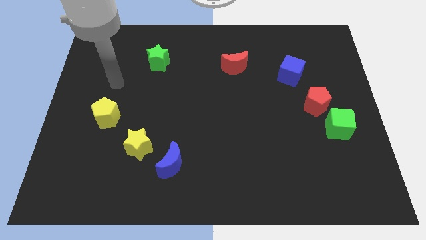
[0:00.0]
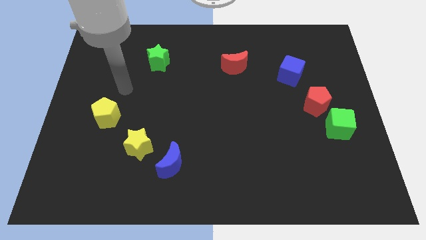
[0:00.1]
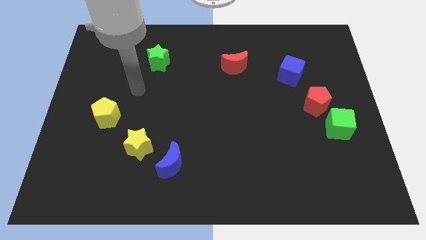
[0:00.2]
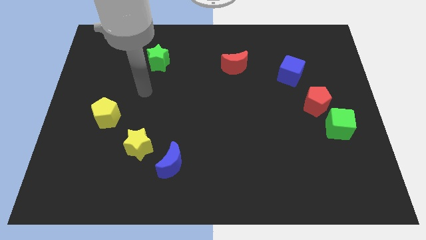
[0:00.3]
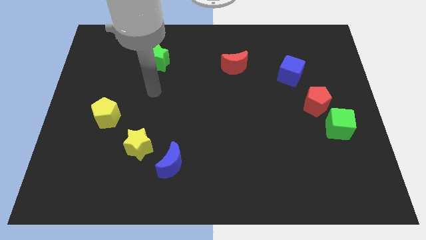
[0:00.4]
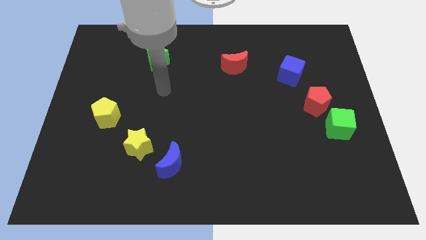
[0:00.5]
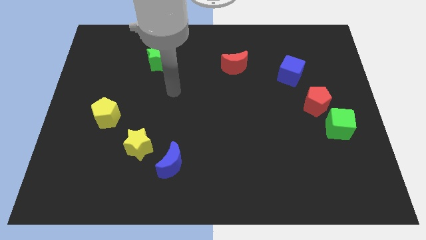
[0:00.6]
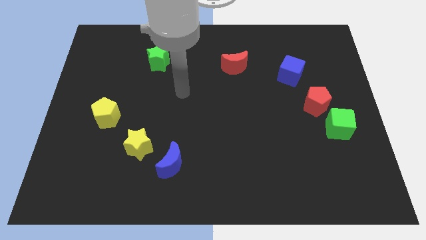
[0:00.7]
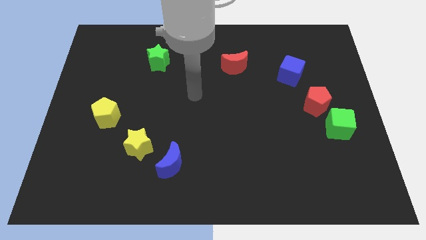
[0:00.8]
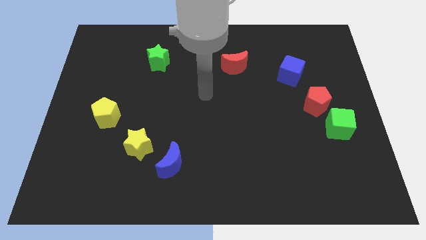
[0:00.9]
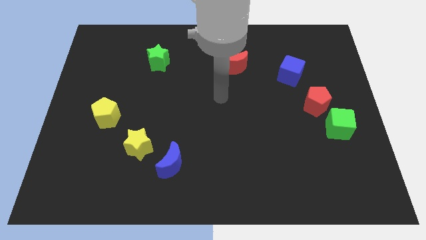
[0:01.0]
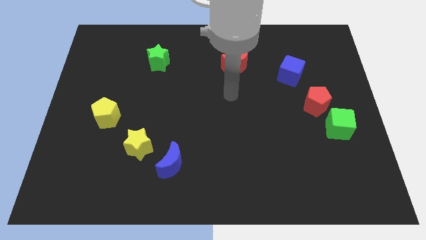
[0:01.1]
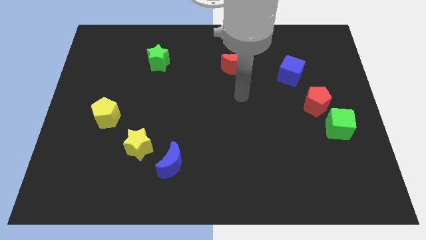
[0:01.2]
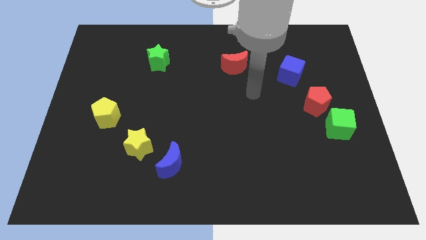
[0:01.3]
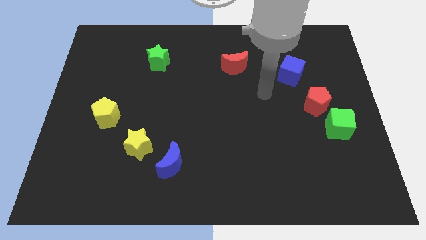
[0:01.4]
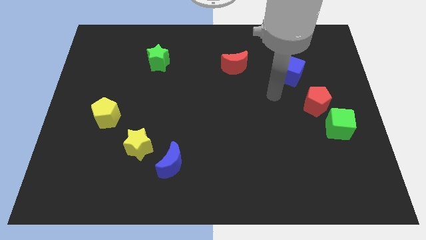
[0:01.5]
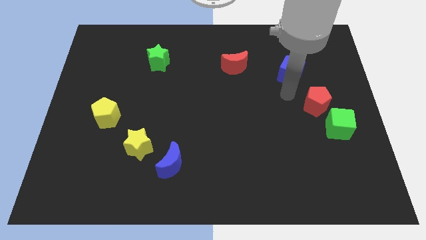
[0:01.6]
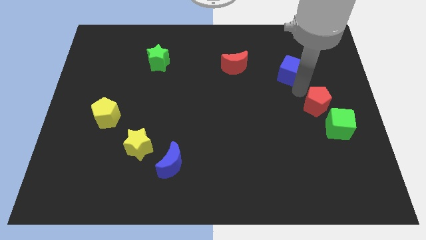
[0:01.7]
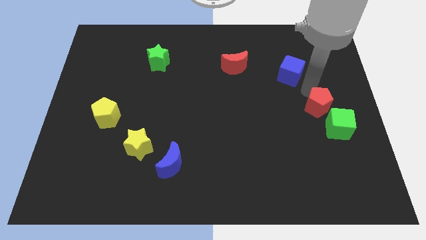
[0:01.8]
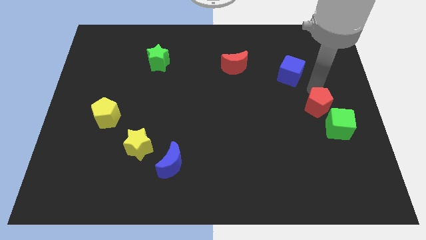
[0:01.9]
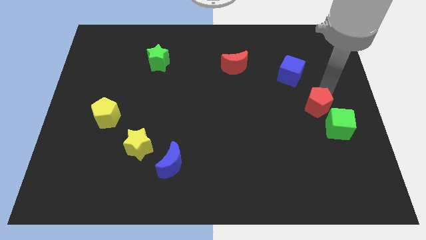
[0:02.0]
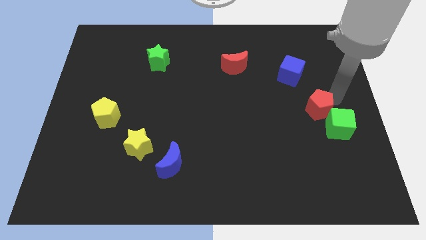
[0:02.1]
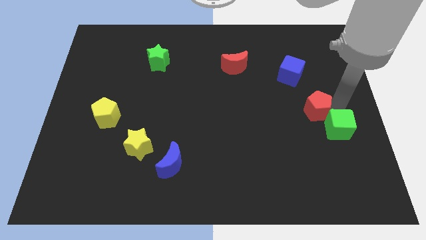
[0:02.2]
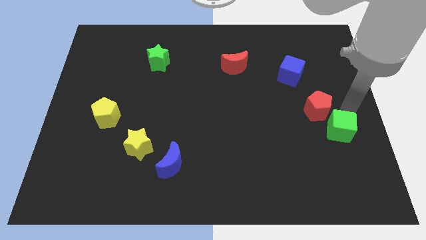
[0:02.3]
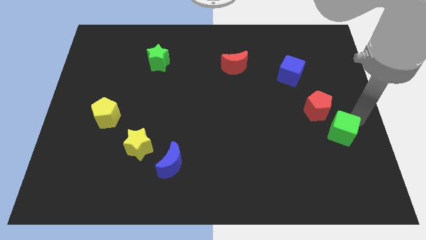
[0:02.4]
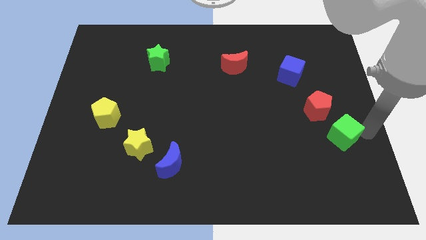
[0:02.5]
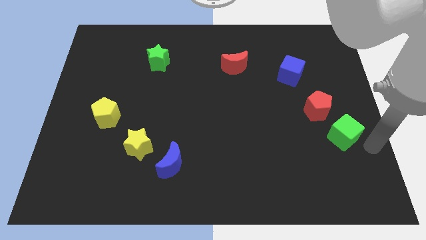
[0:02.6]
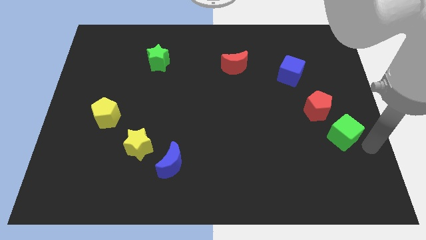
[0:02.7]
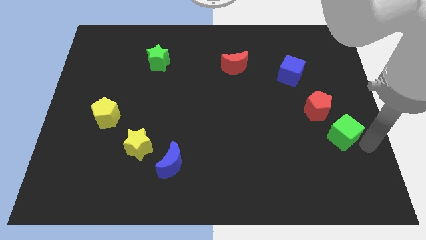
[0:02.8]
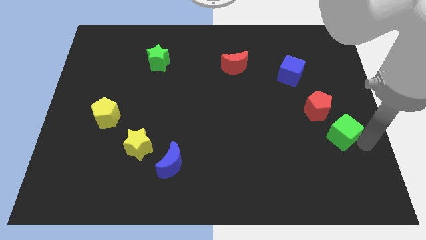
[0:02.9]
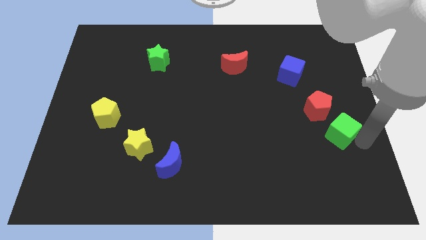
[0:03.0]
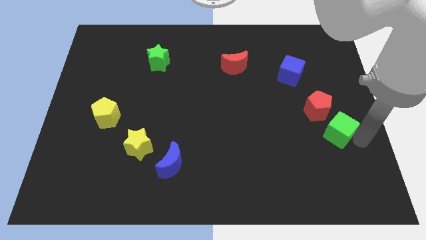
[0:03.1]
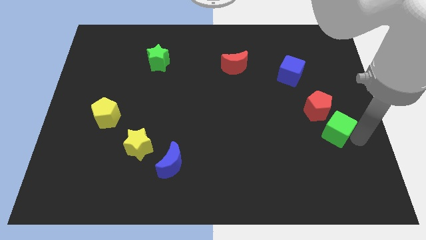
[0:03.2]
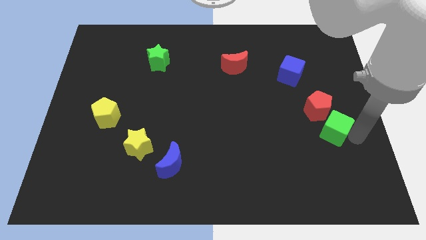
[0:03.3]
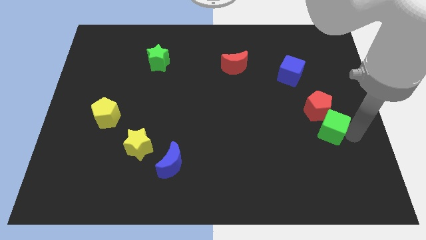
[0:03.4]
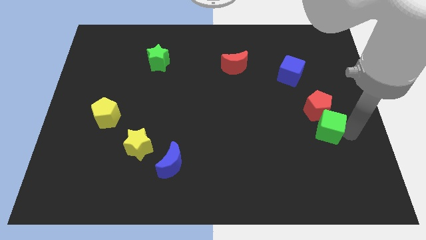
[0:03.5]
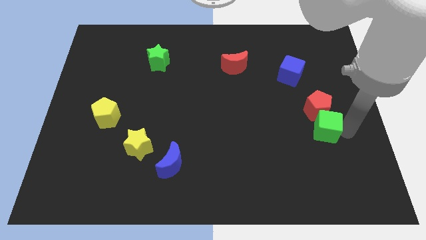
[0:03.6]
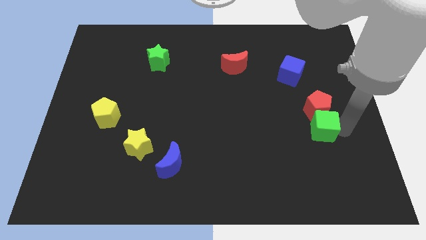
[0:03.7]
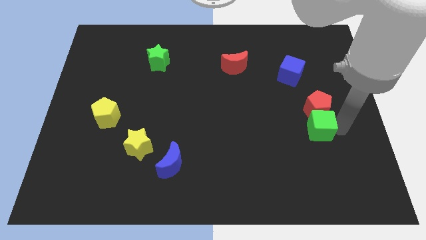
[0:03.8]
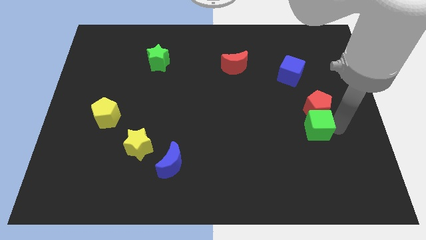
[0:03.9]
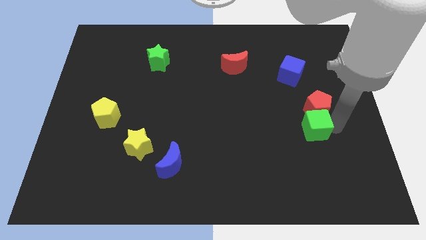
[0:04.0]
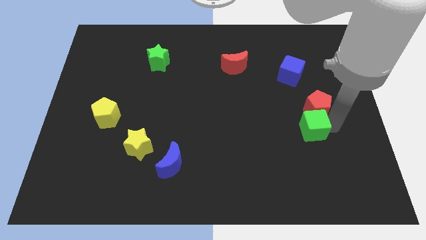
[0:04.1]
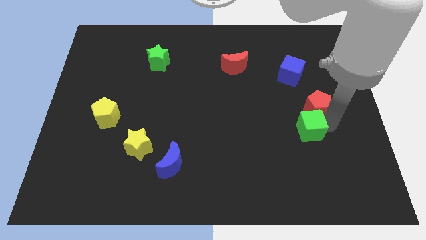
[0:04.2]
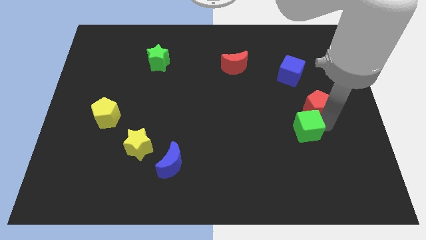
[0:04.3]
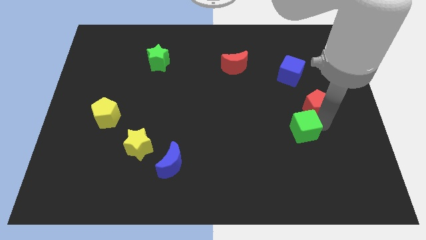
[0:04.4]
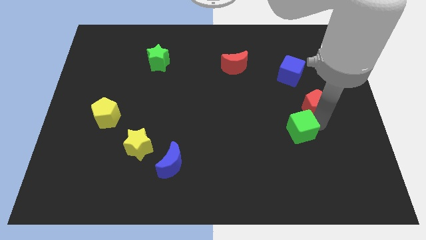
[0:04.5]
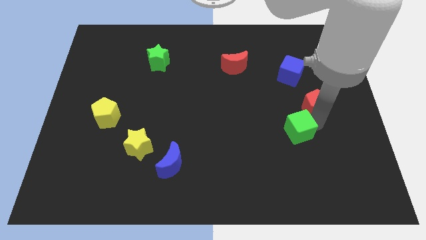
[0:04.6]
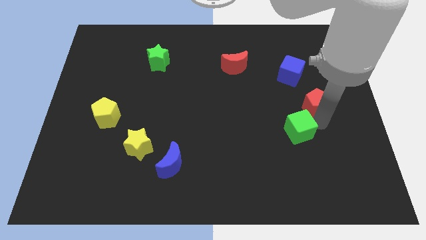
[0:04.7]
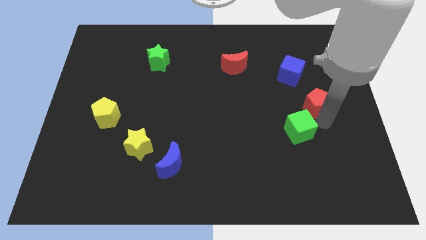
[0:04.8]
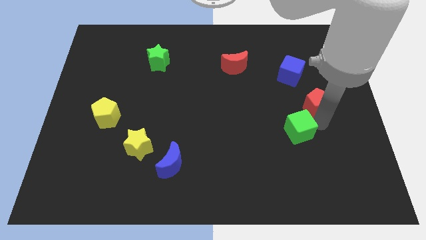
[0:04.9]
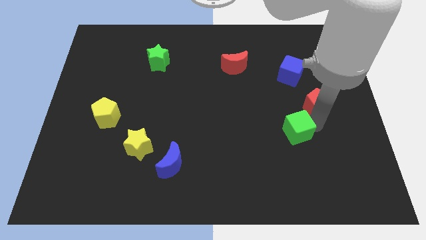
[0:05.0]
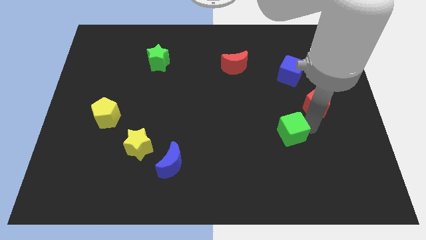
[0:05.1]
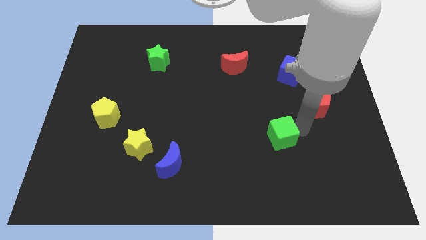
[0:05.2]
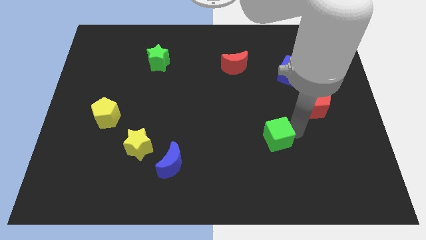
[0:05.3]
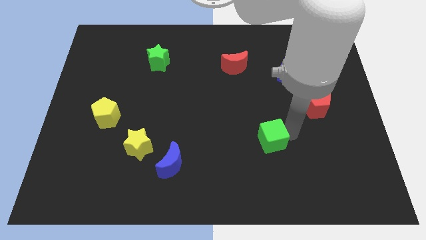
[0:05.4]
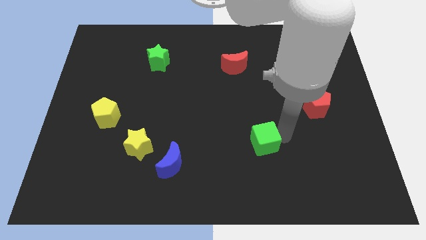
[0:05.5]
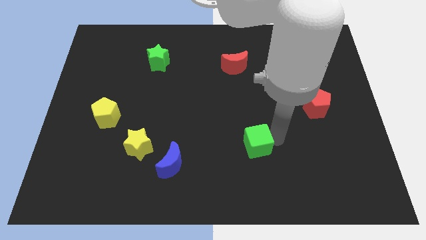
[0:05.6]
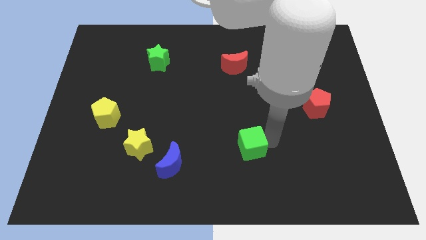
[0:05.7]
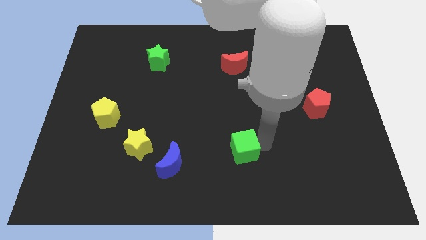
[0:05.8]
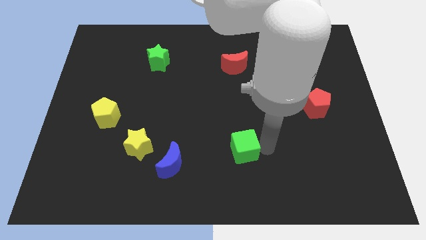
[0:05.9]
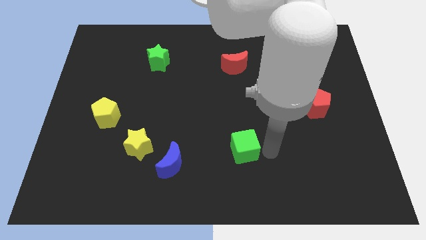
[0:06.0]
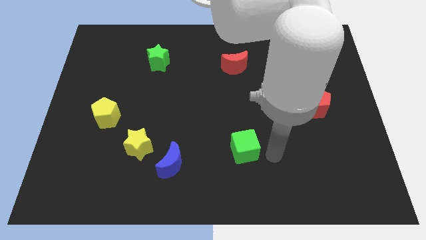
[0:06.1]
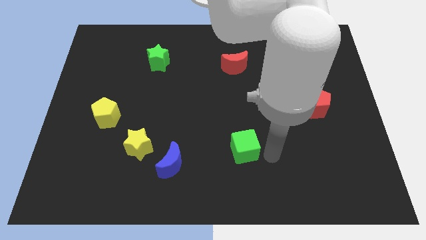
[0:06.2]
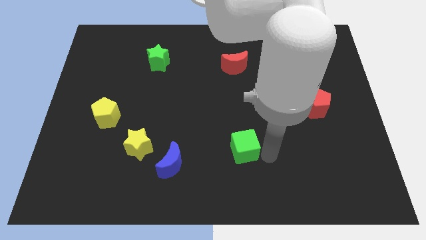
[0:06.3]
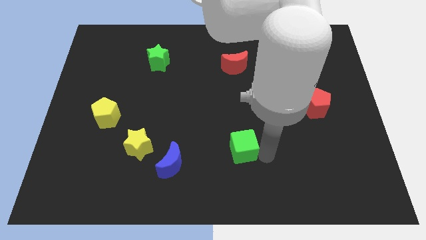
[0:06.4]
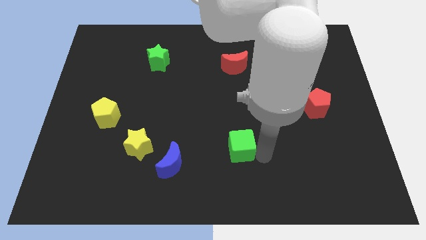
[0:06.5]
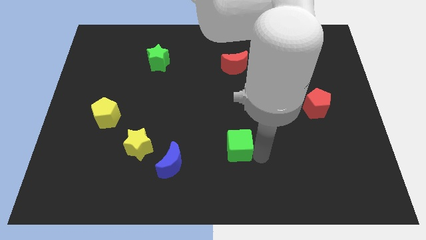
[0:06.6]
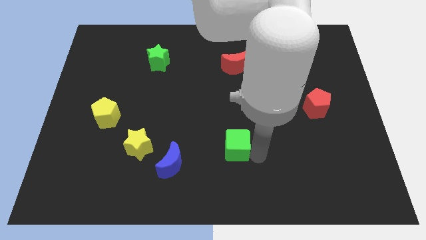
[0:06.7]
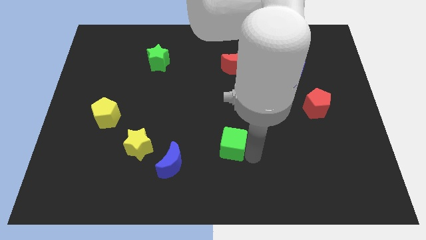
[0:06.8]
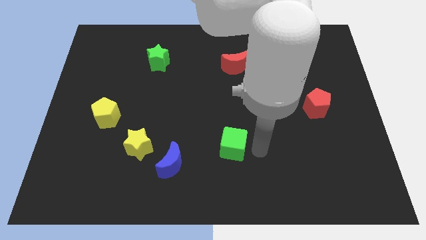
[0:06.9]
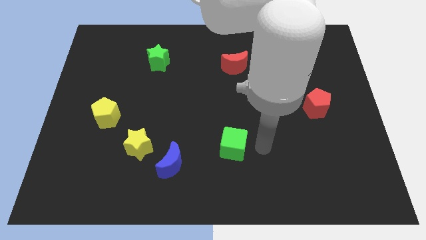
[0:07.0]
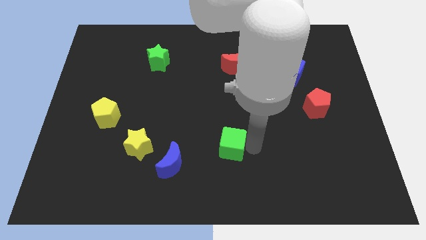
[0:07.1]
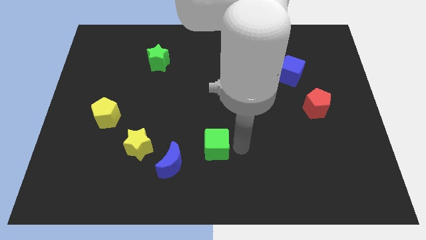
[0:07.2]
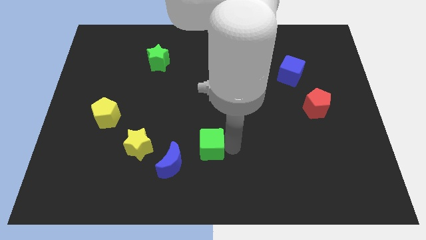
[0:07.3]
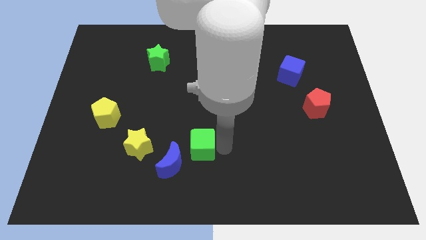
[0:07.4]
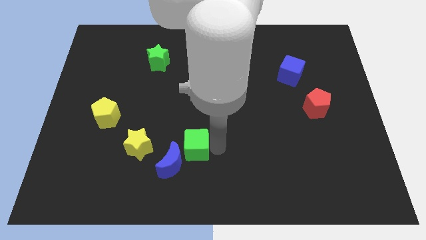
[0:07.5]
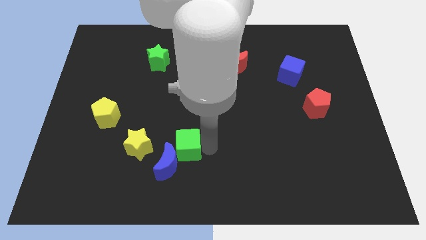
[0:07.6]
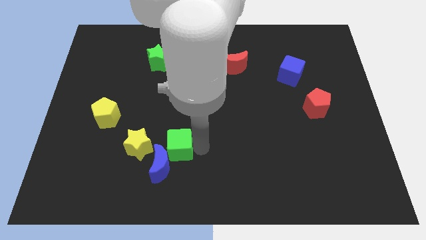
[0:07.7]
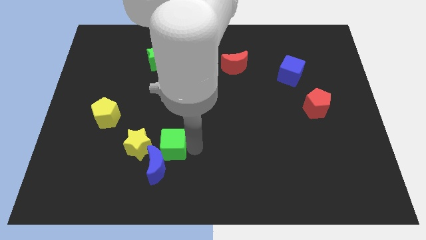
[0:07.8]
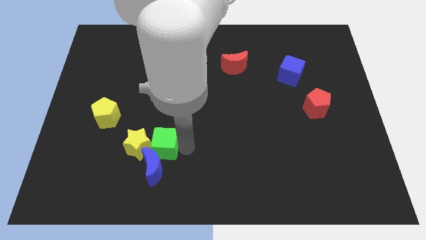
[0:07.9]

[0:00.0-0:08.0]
put the green cube close to the yellow star
